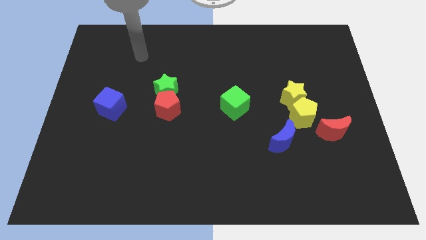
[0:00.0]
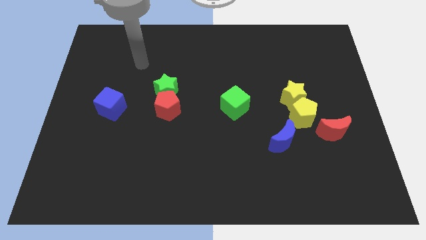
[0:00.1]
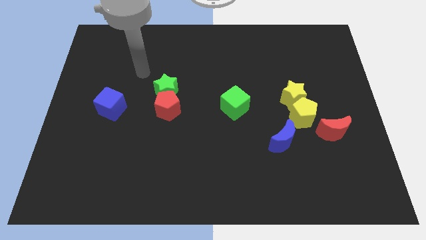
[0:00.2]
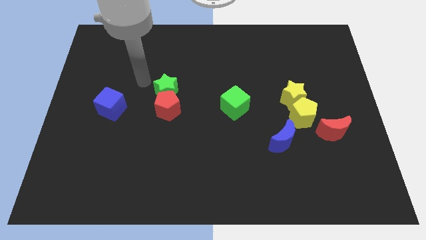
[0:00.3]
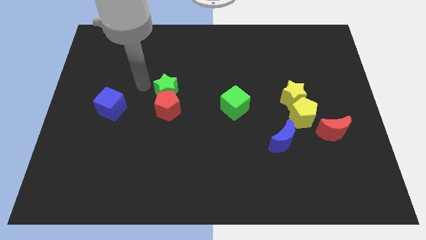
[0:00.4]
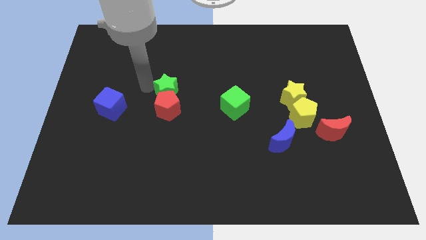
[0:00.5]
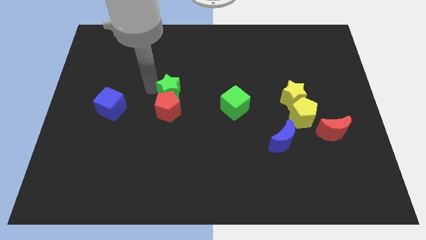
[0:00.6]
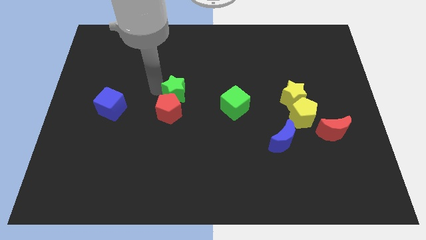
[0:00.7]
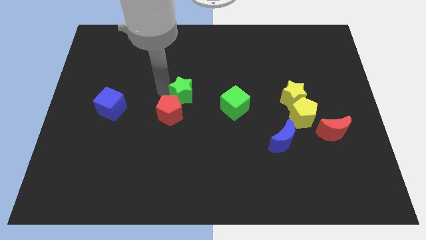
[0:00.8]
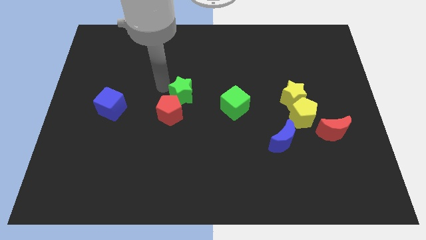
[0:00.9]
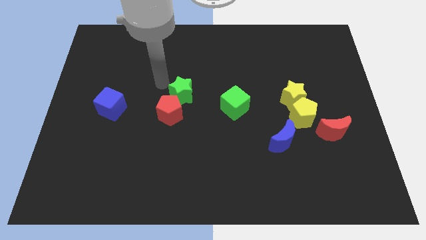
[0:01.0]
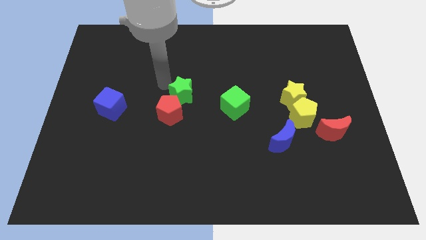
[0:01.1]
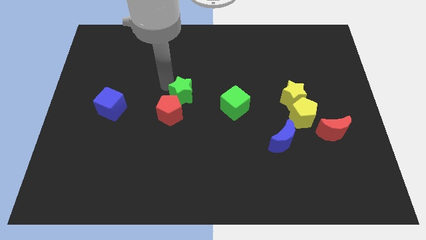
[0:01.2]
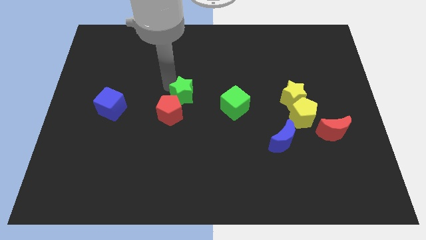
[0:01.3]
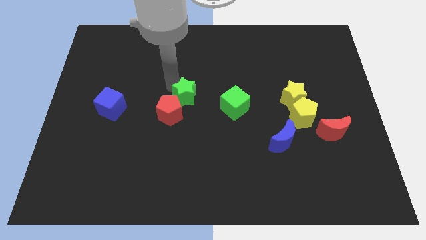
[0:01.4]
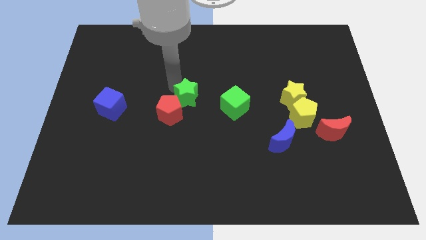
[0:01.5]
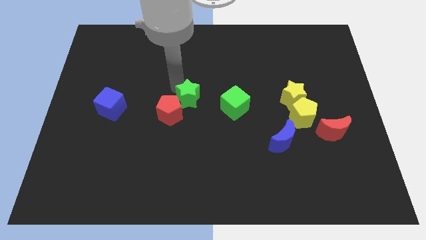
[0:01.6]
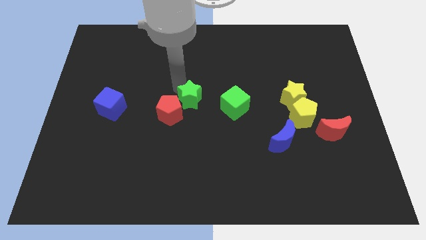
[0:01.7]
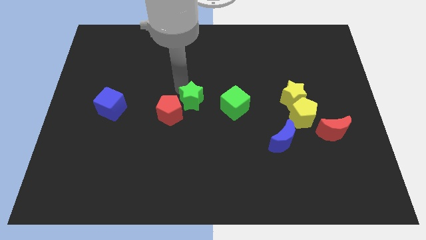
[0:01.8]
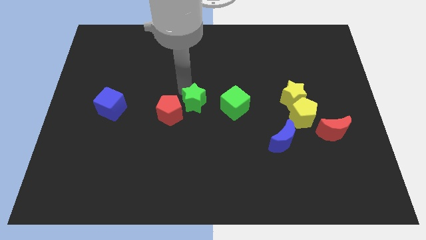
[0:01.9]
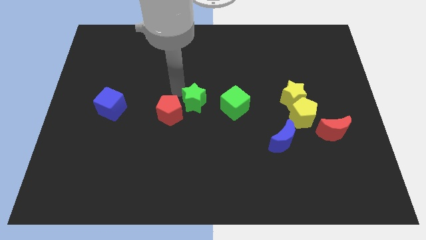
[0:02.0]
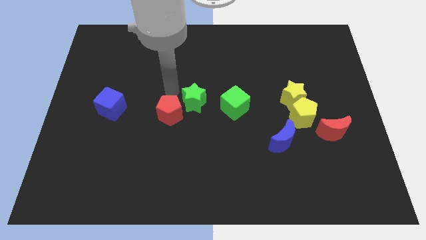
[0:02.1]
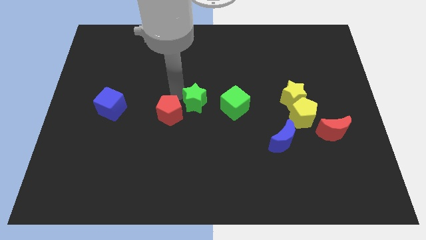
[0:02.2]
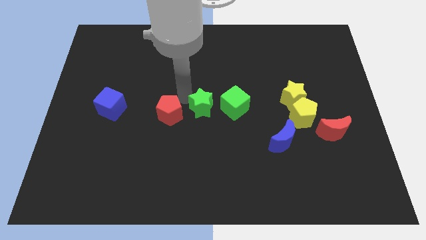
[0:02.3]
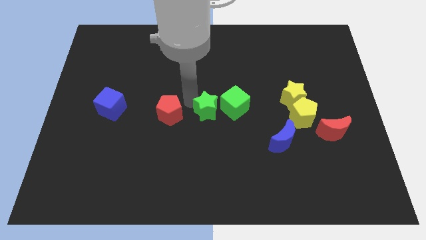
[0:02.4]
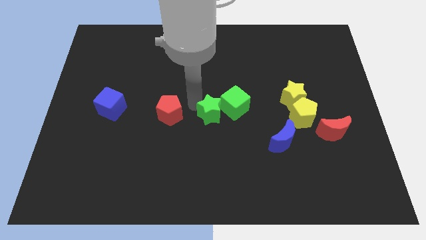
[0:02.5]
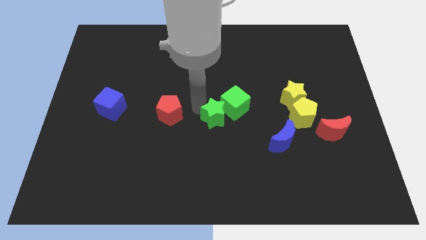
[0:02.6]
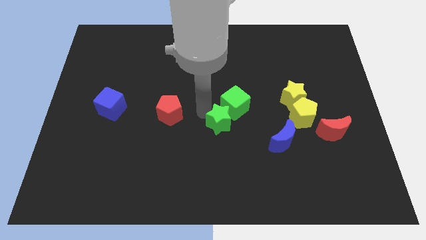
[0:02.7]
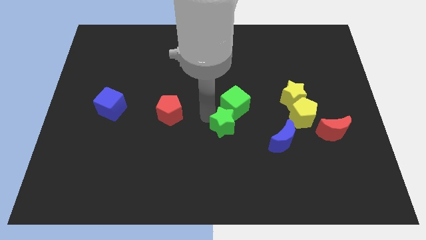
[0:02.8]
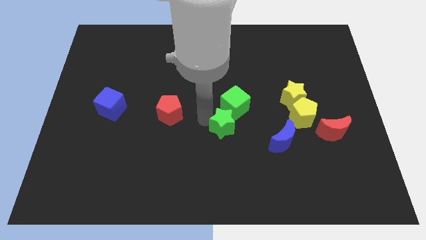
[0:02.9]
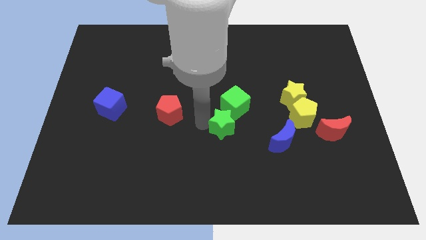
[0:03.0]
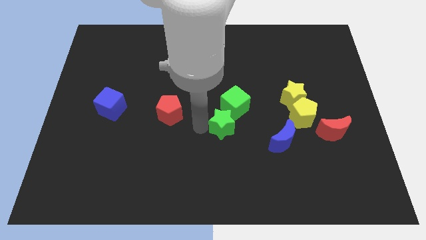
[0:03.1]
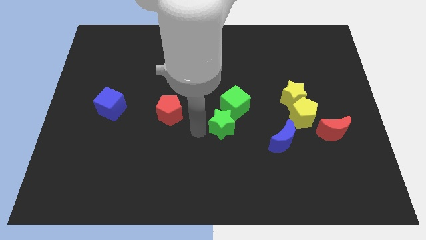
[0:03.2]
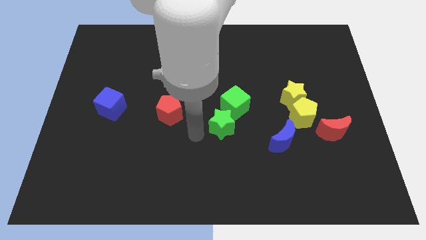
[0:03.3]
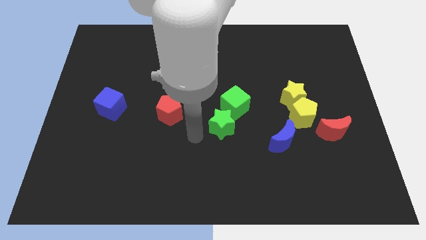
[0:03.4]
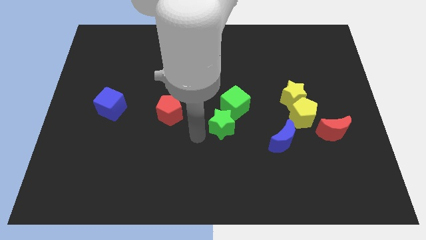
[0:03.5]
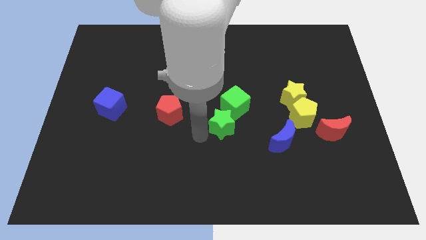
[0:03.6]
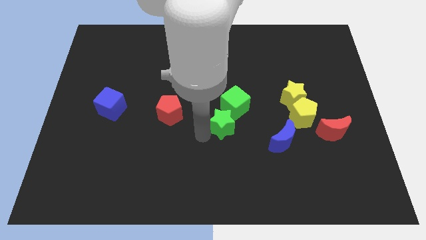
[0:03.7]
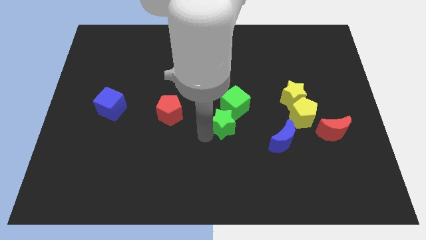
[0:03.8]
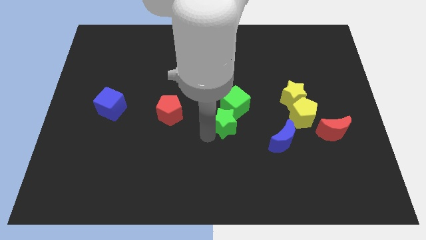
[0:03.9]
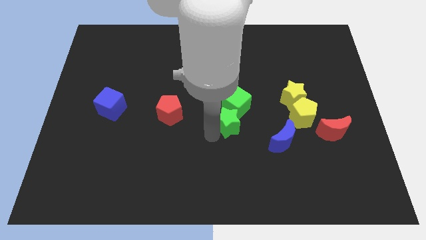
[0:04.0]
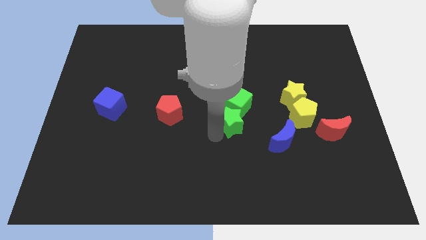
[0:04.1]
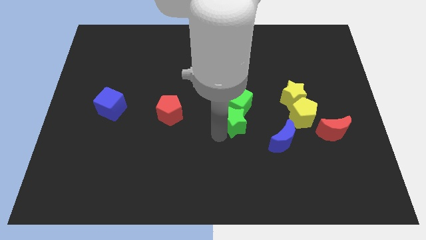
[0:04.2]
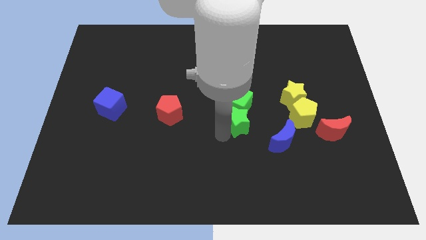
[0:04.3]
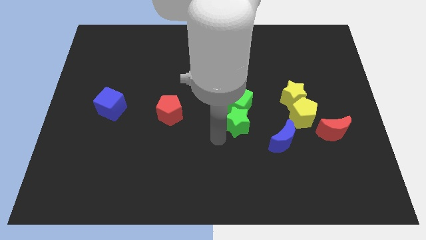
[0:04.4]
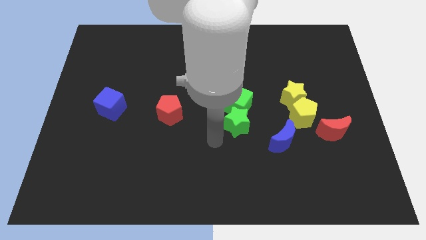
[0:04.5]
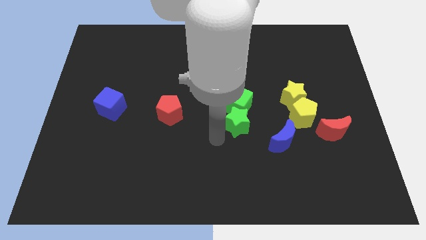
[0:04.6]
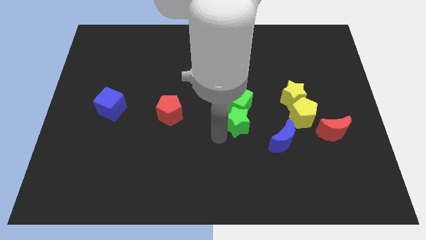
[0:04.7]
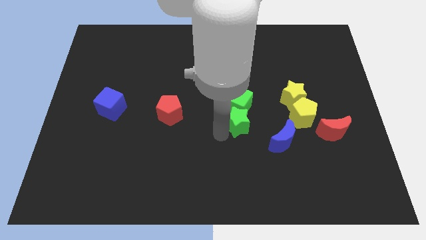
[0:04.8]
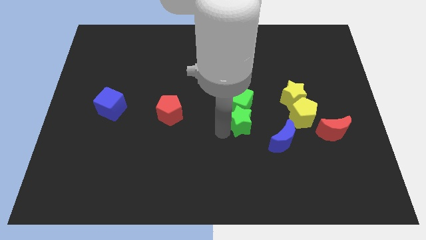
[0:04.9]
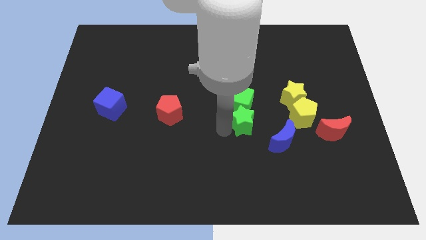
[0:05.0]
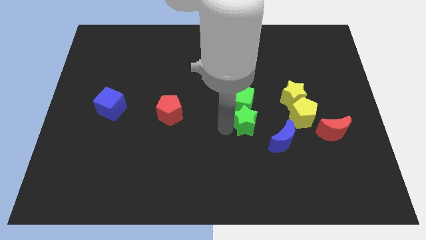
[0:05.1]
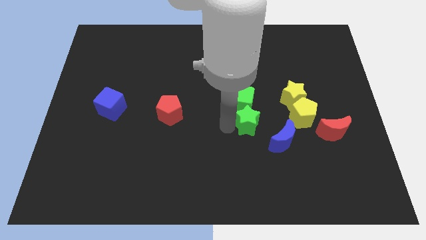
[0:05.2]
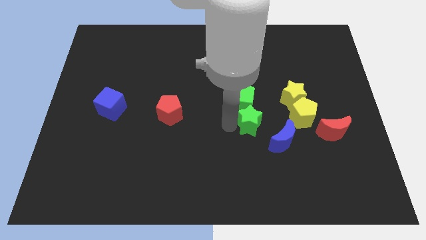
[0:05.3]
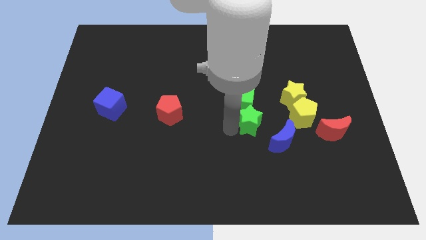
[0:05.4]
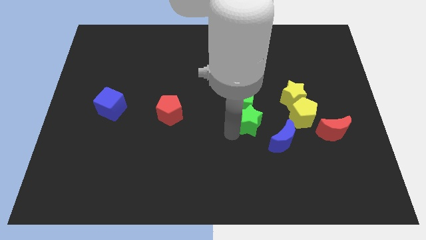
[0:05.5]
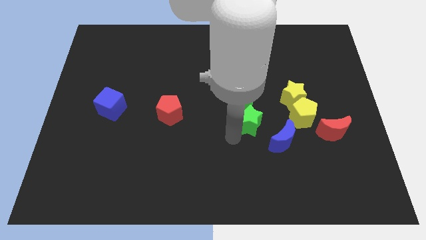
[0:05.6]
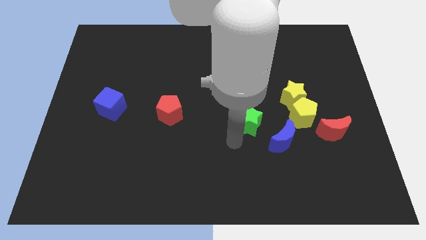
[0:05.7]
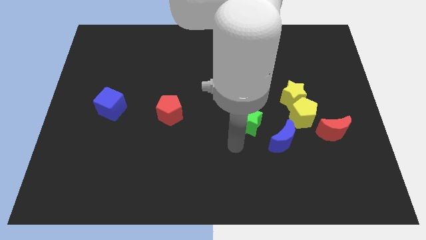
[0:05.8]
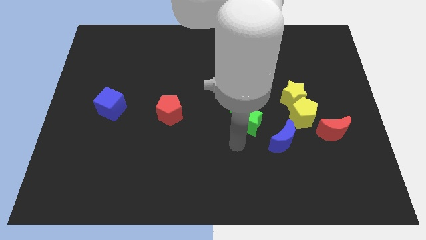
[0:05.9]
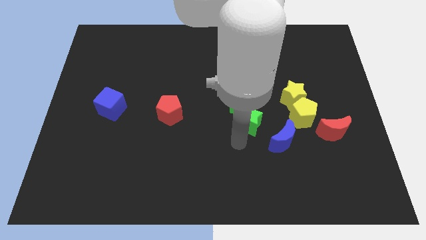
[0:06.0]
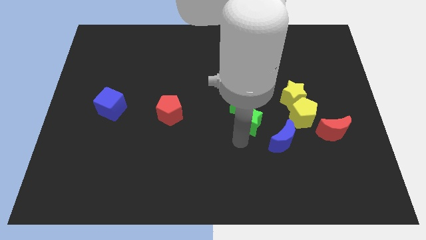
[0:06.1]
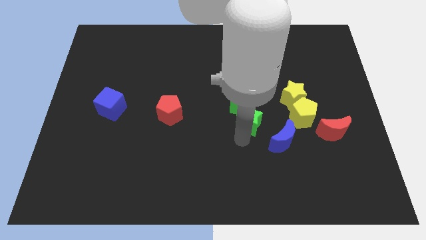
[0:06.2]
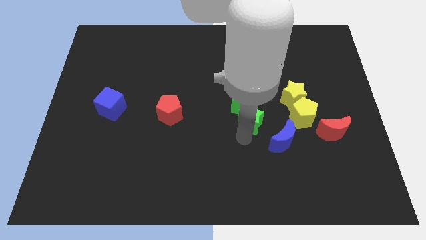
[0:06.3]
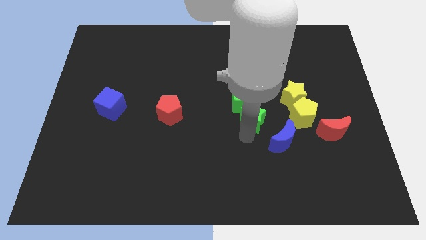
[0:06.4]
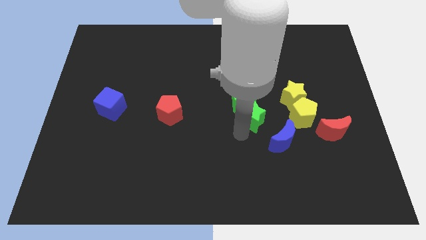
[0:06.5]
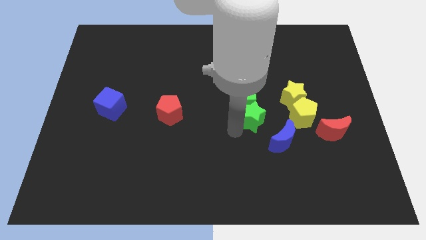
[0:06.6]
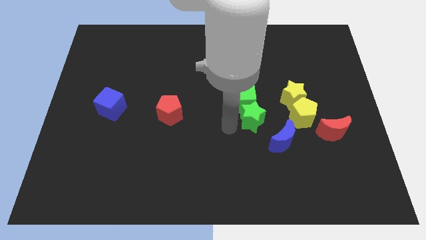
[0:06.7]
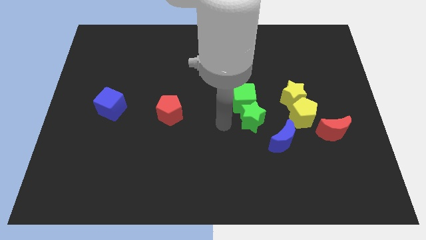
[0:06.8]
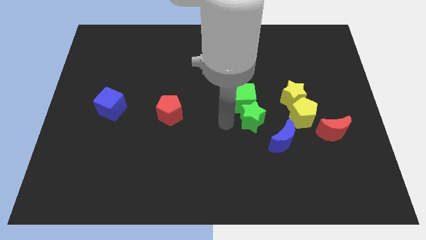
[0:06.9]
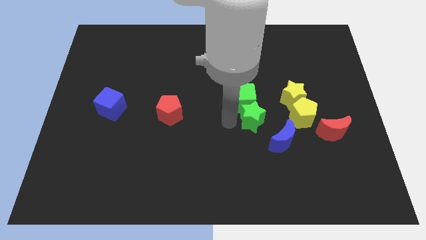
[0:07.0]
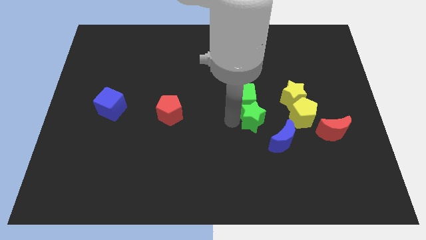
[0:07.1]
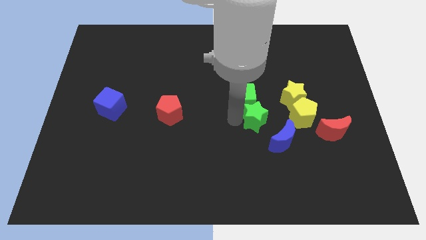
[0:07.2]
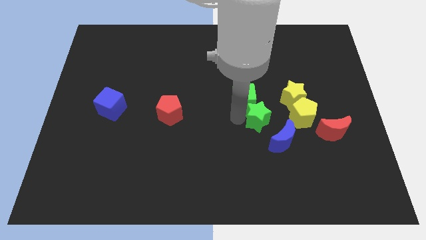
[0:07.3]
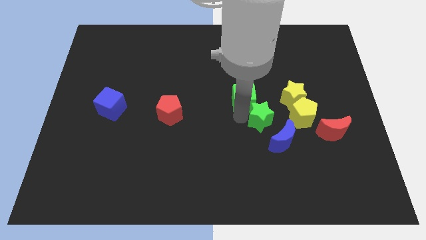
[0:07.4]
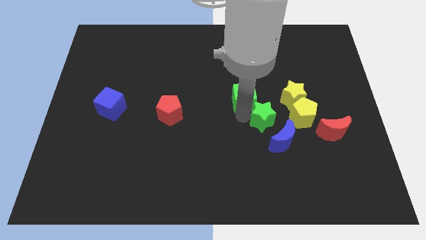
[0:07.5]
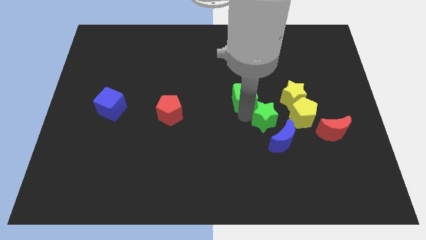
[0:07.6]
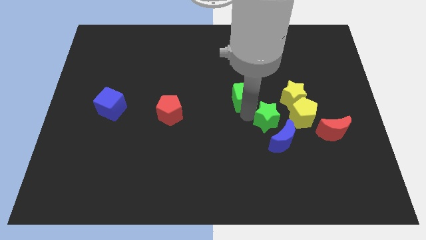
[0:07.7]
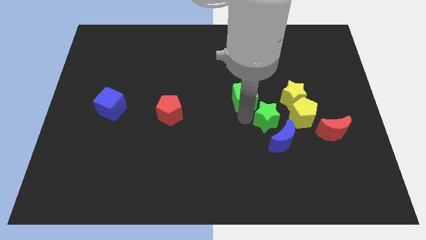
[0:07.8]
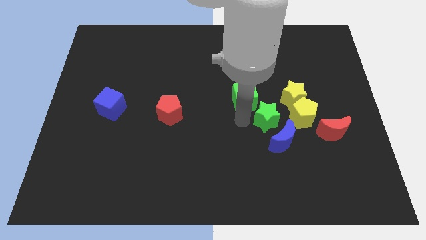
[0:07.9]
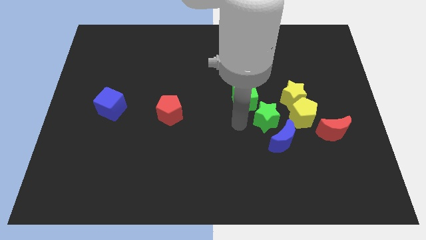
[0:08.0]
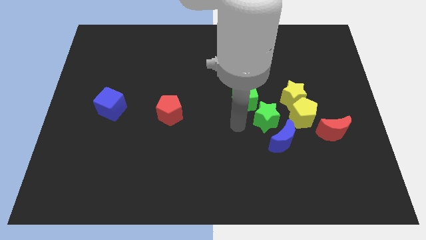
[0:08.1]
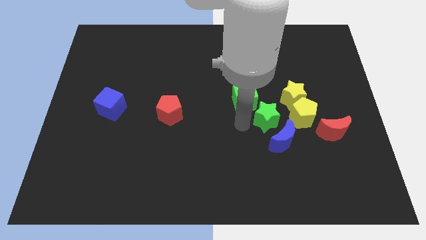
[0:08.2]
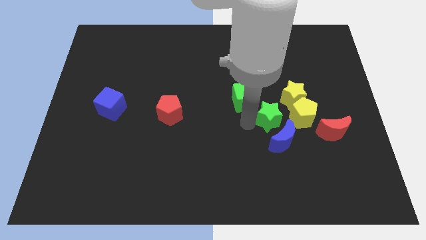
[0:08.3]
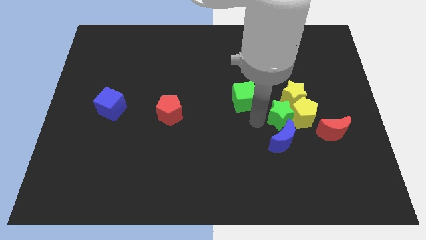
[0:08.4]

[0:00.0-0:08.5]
move the green star close to the yellow pentagon
